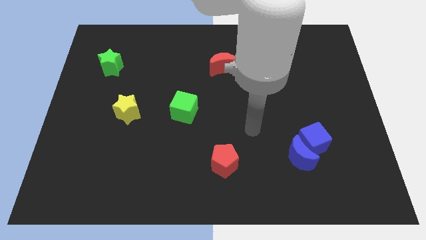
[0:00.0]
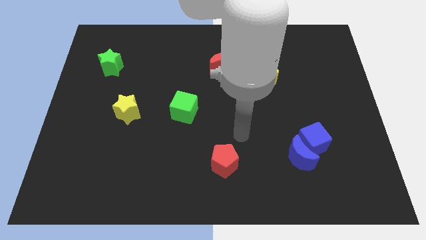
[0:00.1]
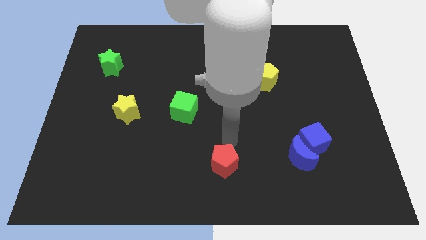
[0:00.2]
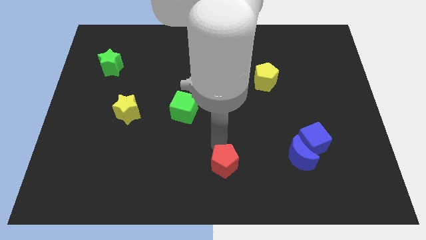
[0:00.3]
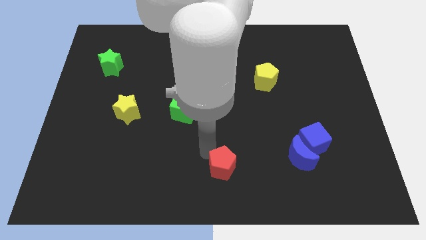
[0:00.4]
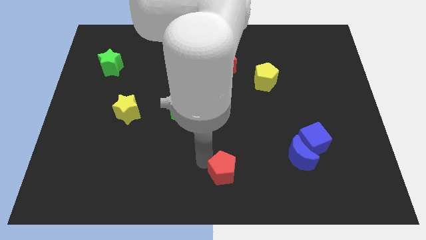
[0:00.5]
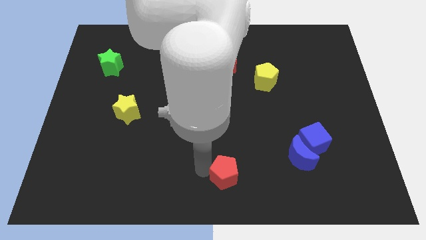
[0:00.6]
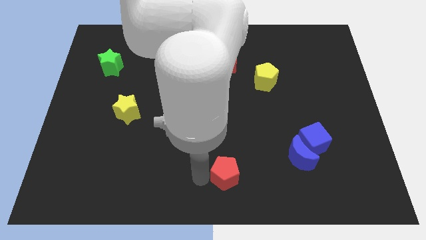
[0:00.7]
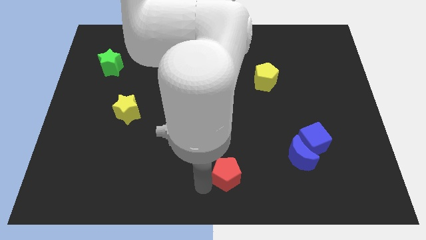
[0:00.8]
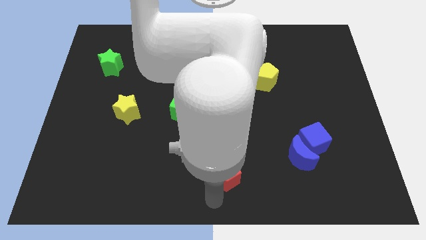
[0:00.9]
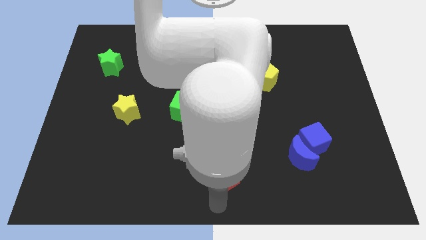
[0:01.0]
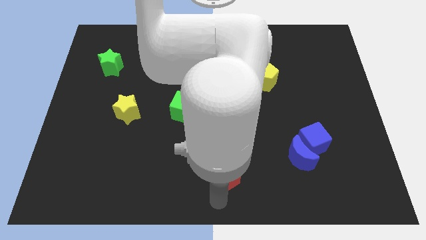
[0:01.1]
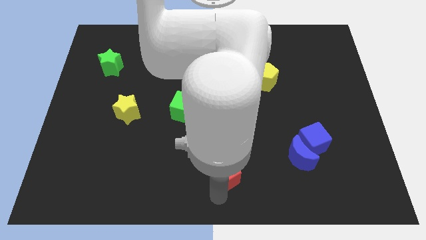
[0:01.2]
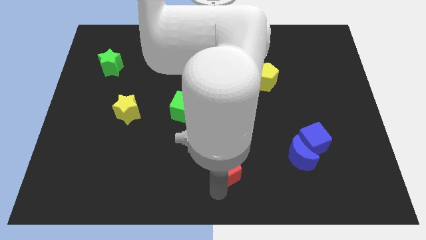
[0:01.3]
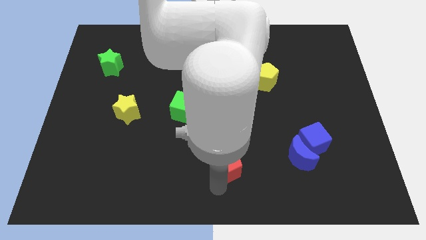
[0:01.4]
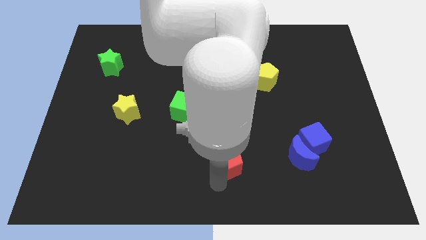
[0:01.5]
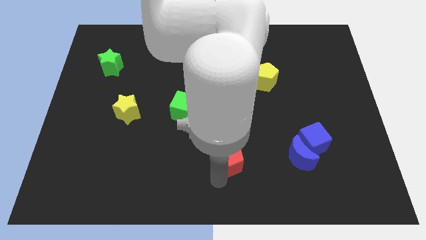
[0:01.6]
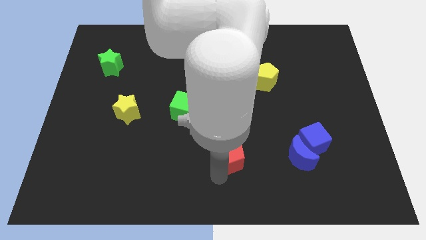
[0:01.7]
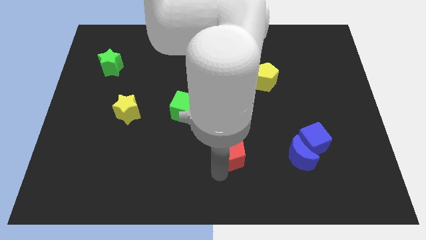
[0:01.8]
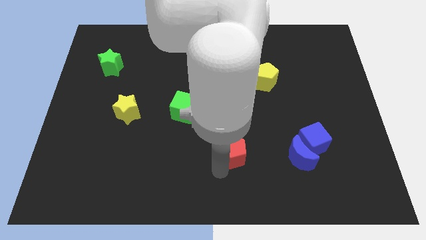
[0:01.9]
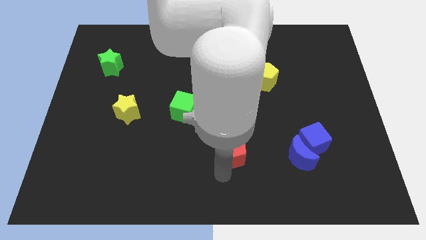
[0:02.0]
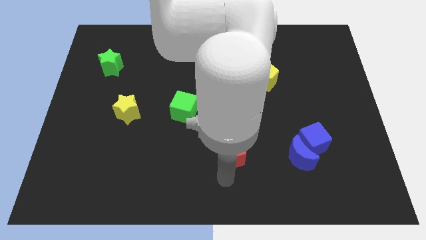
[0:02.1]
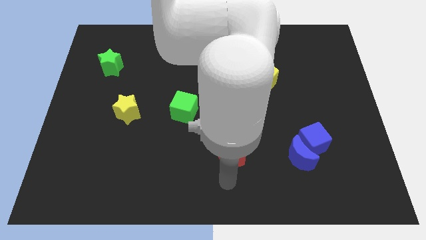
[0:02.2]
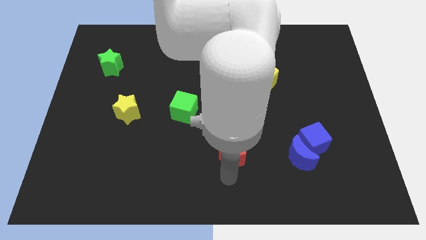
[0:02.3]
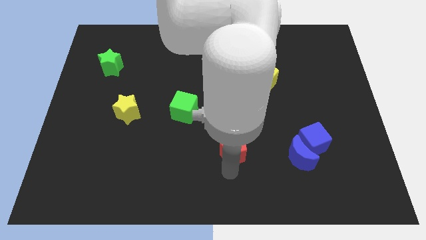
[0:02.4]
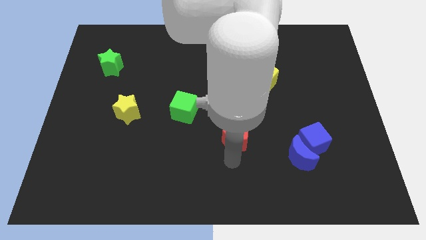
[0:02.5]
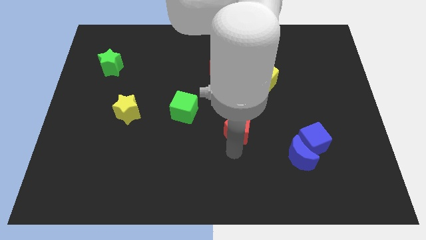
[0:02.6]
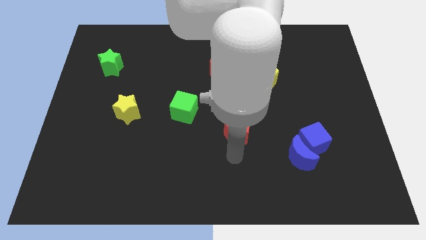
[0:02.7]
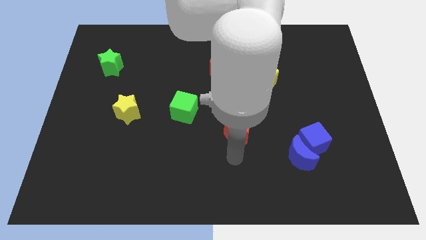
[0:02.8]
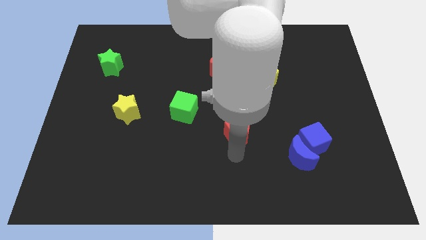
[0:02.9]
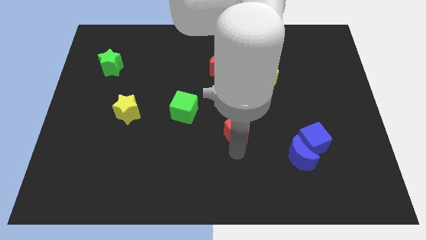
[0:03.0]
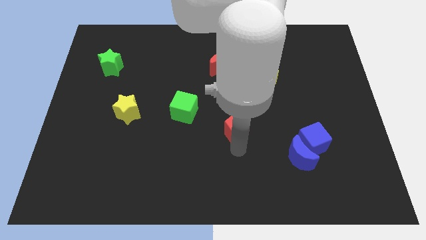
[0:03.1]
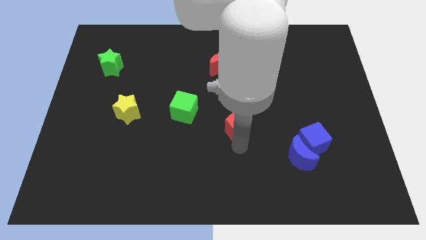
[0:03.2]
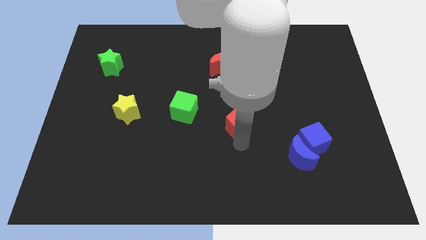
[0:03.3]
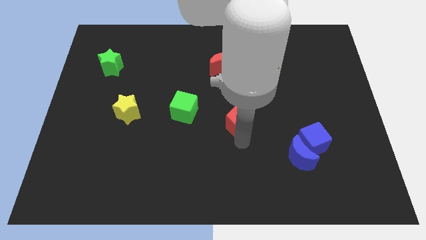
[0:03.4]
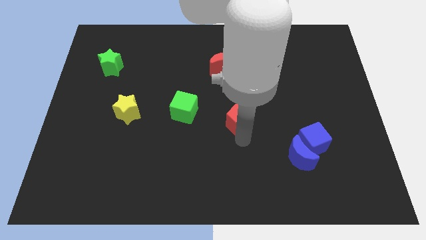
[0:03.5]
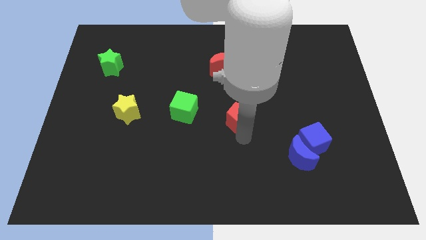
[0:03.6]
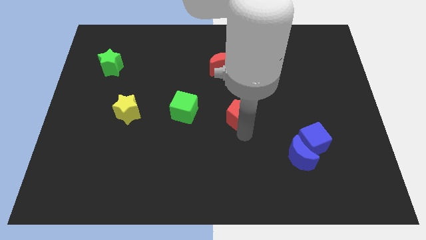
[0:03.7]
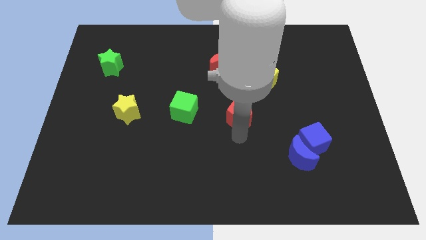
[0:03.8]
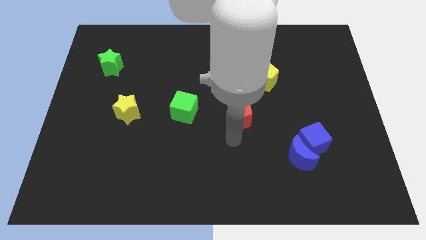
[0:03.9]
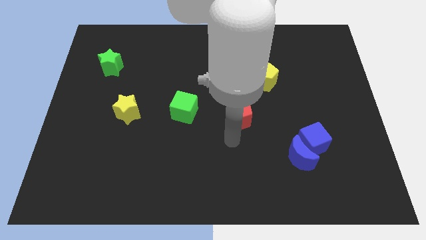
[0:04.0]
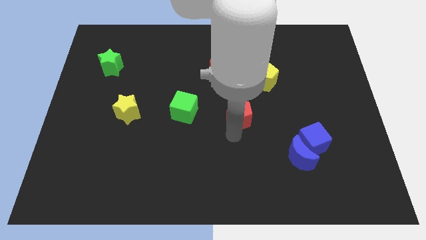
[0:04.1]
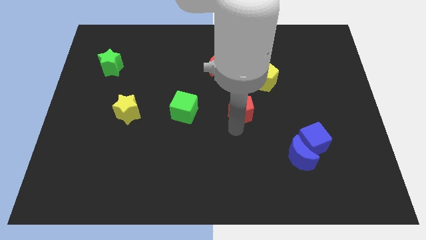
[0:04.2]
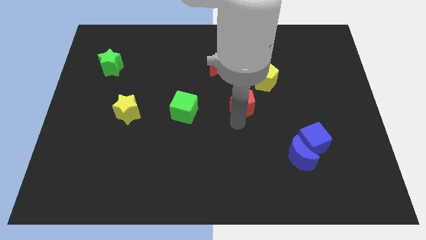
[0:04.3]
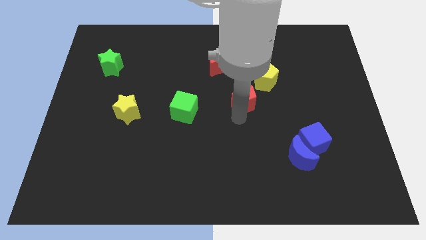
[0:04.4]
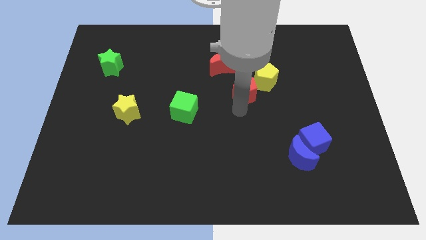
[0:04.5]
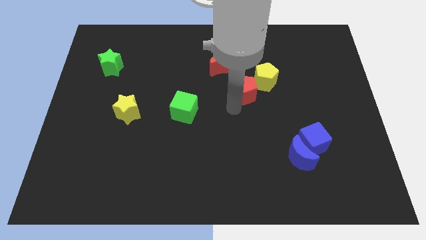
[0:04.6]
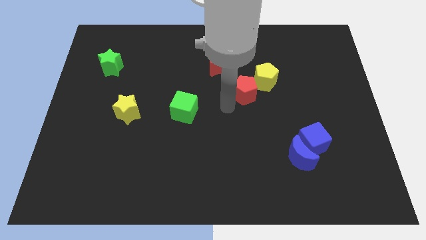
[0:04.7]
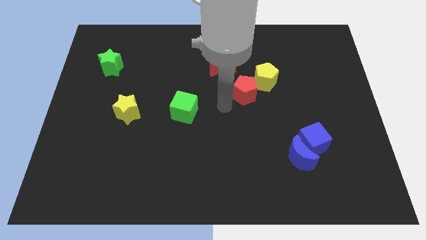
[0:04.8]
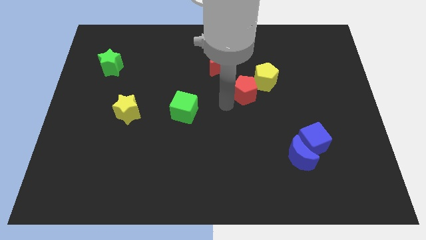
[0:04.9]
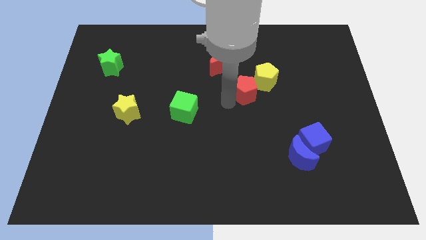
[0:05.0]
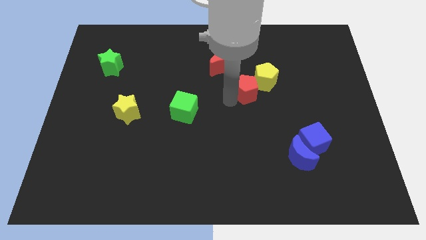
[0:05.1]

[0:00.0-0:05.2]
put the red pentagon towards the yellow pentagon

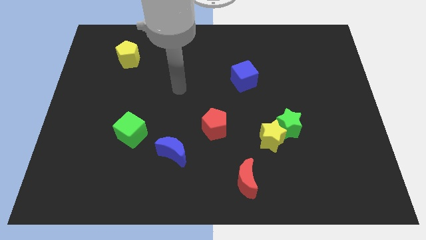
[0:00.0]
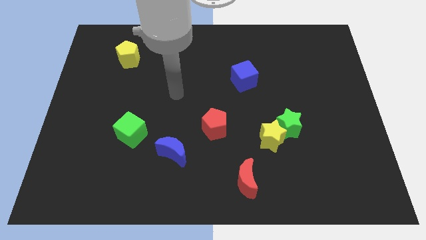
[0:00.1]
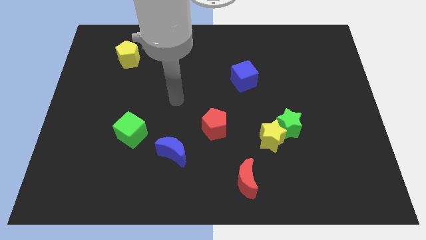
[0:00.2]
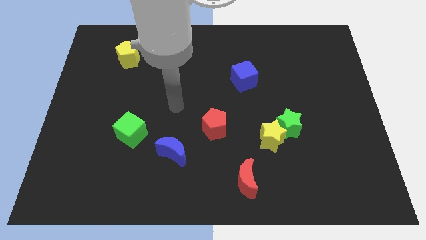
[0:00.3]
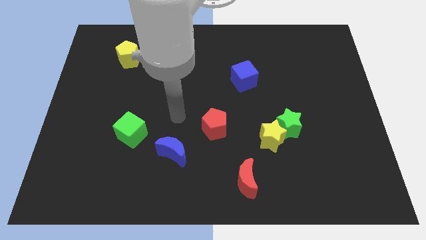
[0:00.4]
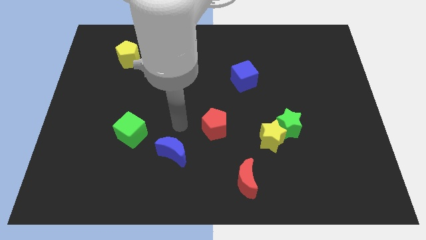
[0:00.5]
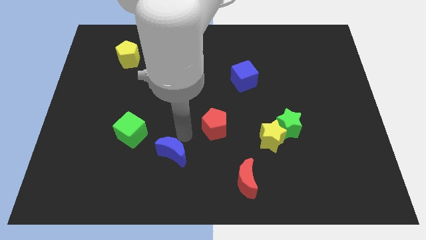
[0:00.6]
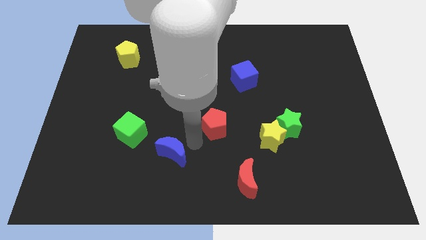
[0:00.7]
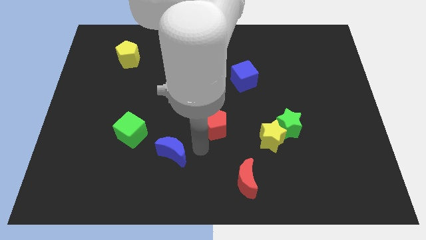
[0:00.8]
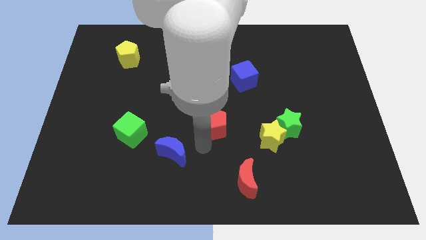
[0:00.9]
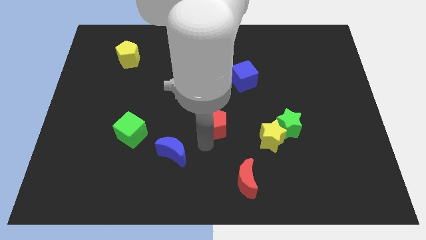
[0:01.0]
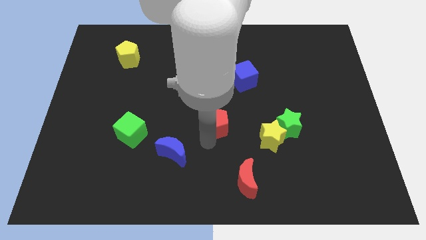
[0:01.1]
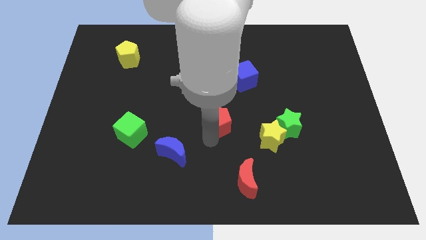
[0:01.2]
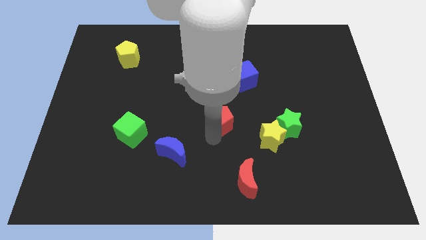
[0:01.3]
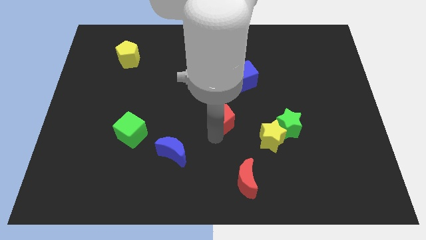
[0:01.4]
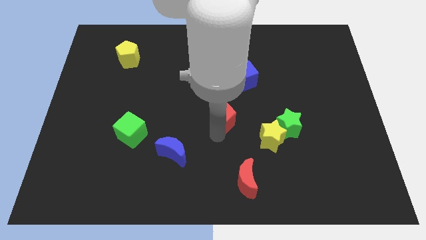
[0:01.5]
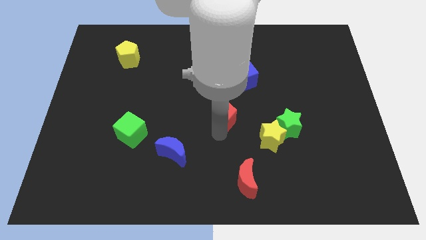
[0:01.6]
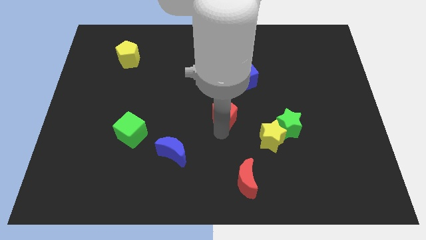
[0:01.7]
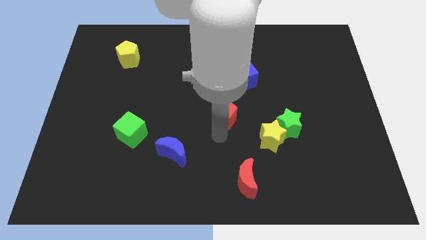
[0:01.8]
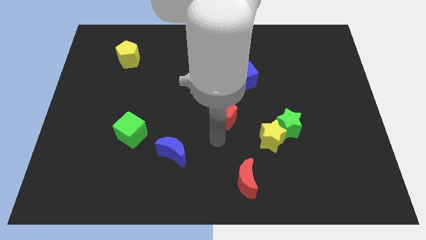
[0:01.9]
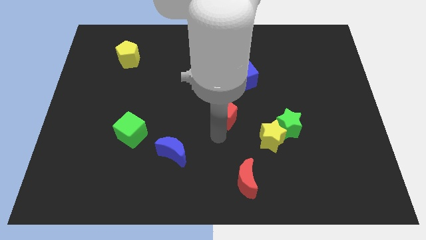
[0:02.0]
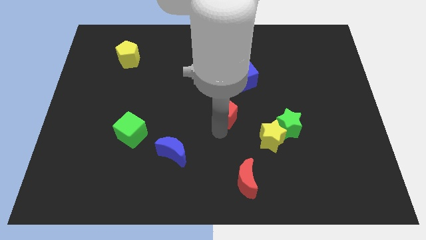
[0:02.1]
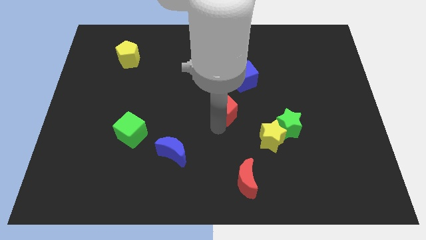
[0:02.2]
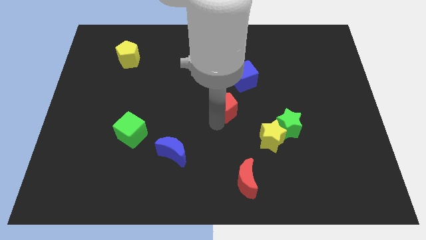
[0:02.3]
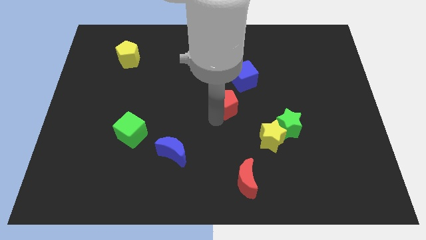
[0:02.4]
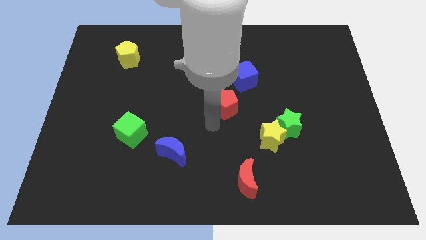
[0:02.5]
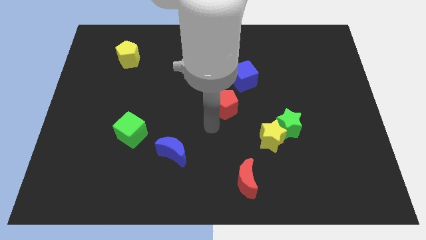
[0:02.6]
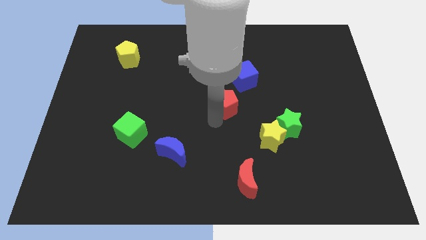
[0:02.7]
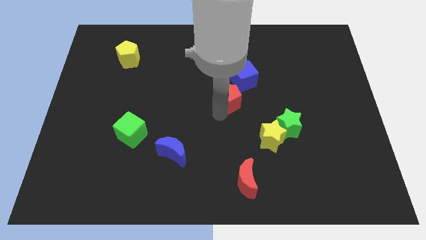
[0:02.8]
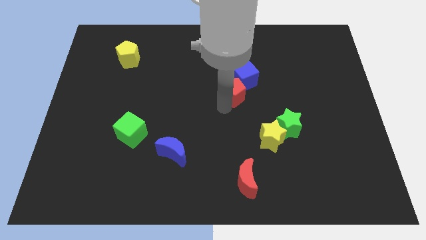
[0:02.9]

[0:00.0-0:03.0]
push the red pentagon close to the blue cube

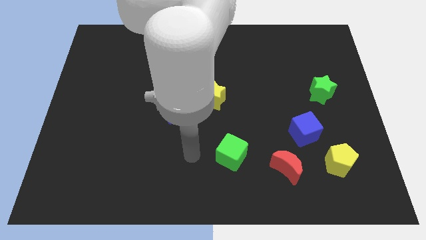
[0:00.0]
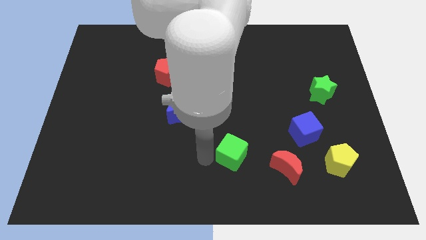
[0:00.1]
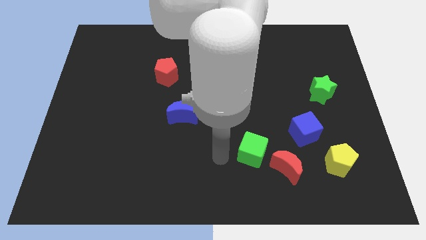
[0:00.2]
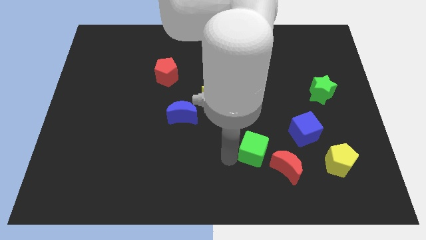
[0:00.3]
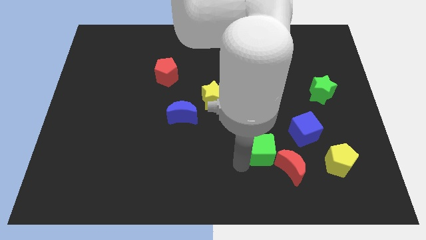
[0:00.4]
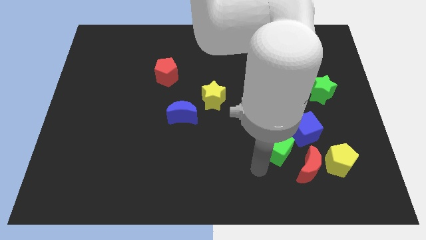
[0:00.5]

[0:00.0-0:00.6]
put the red moon next to the yellow pentagon
